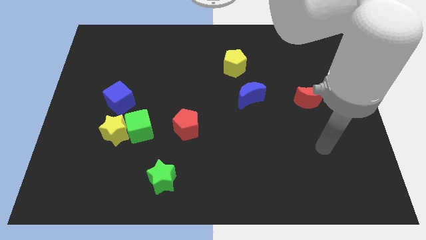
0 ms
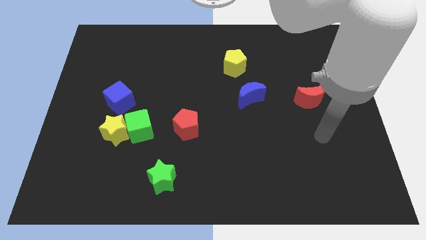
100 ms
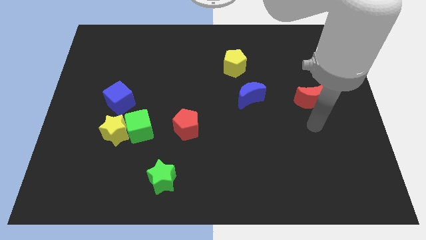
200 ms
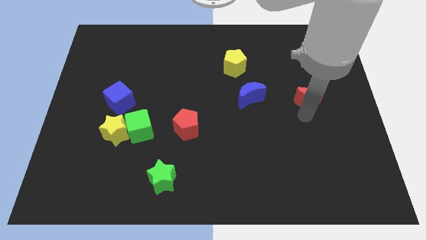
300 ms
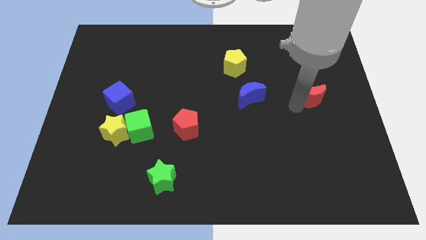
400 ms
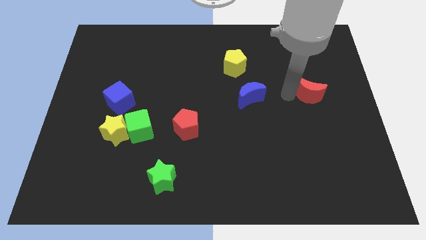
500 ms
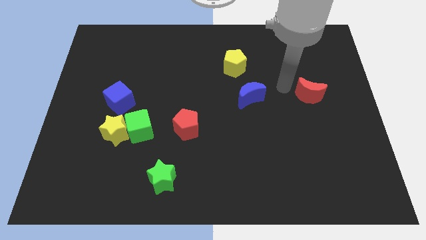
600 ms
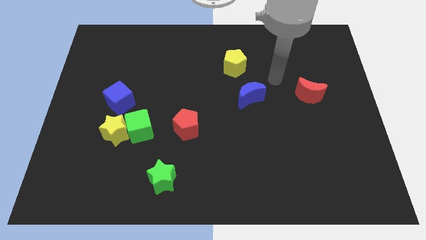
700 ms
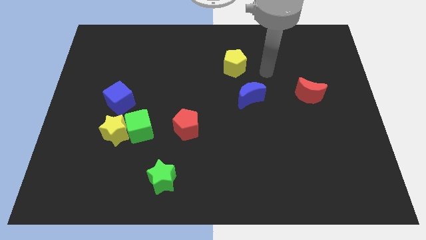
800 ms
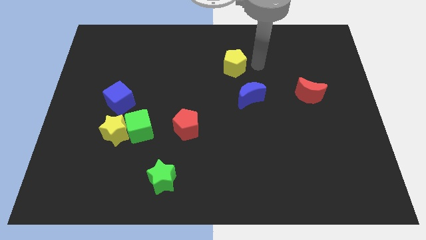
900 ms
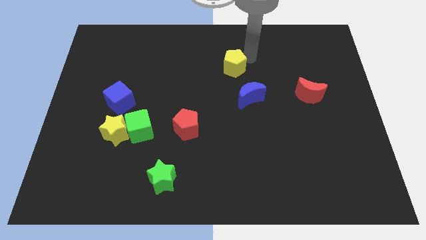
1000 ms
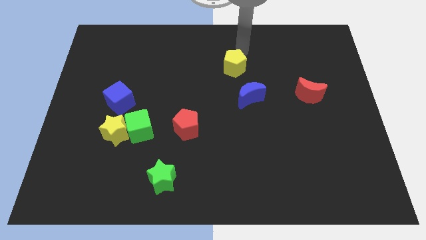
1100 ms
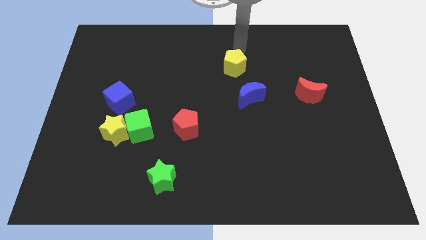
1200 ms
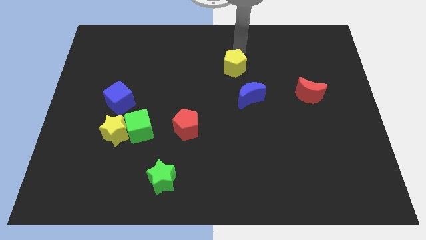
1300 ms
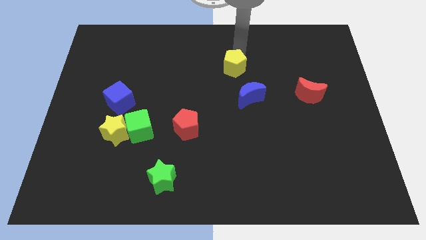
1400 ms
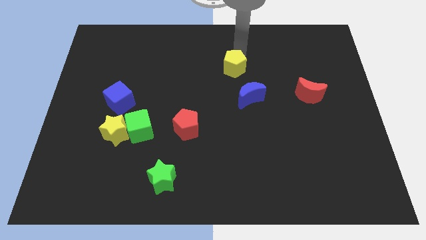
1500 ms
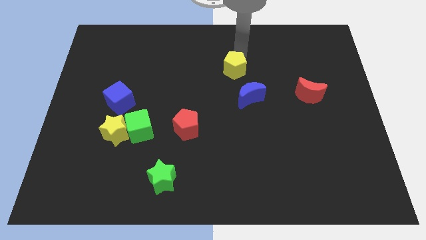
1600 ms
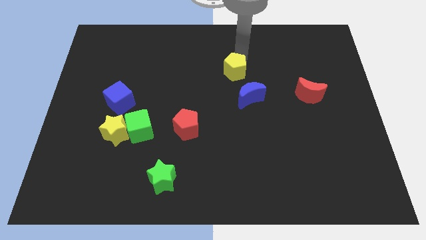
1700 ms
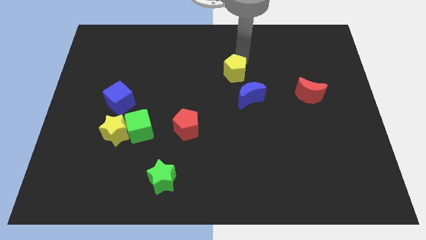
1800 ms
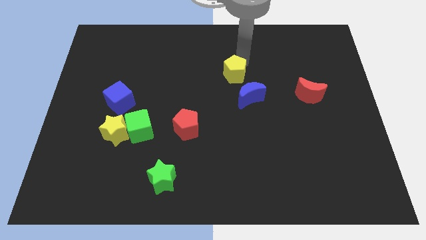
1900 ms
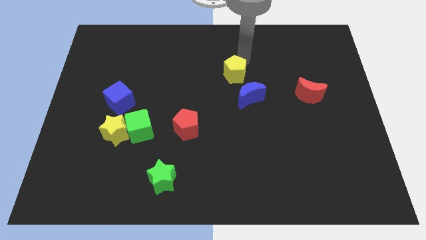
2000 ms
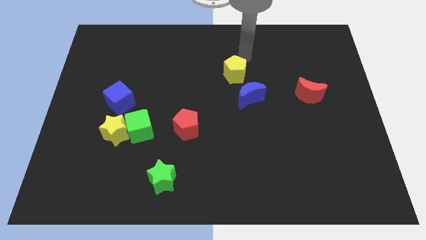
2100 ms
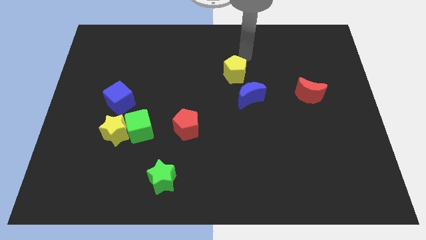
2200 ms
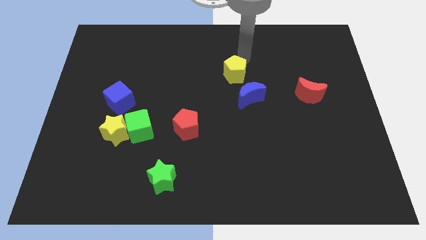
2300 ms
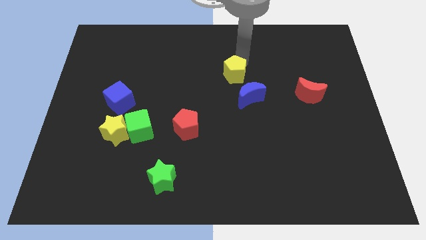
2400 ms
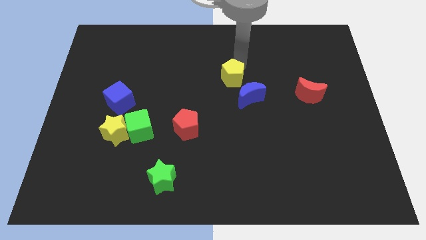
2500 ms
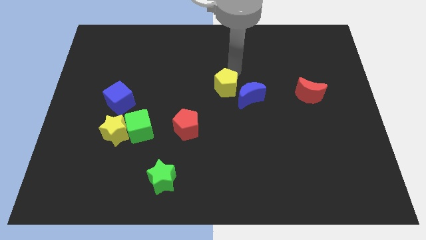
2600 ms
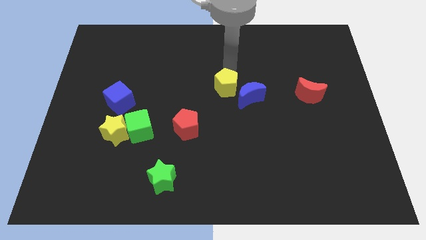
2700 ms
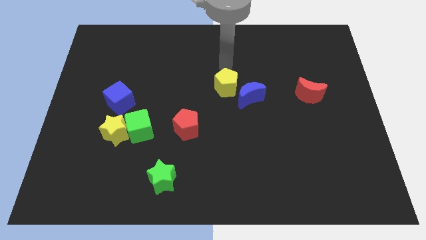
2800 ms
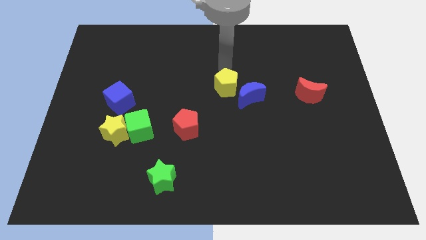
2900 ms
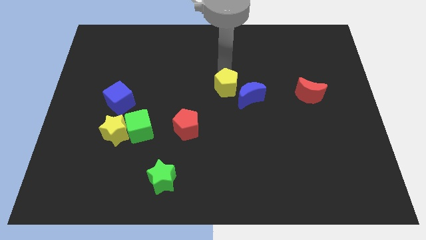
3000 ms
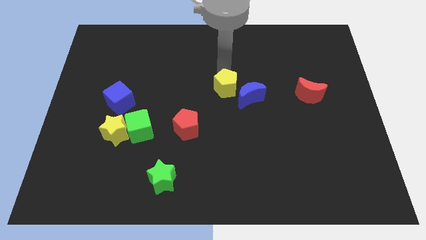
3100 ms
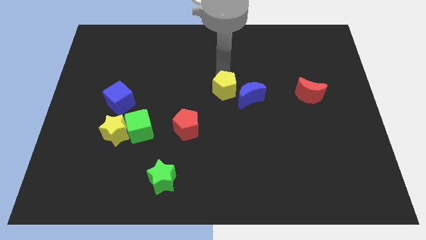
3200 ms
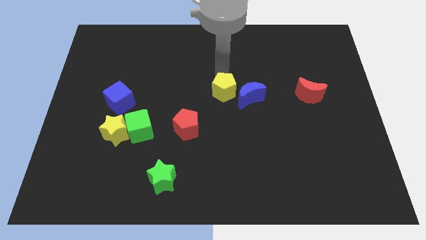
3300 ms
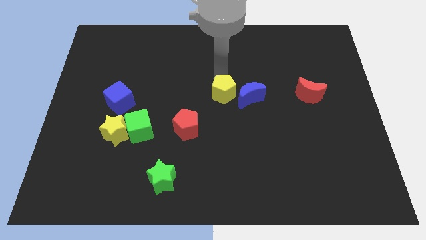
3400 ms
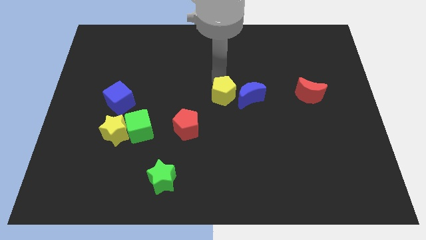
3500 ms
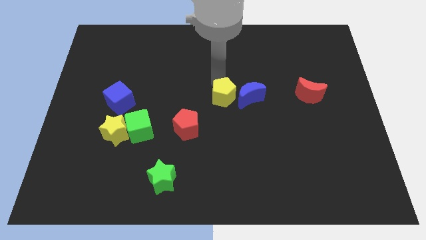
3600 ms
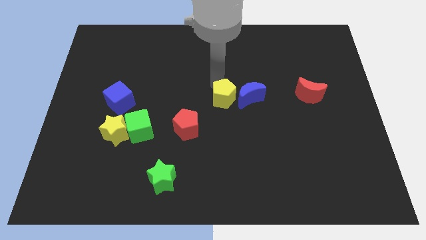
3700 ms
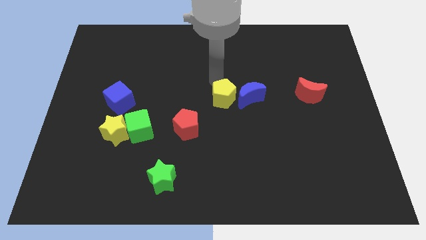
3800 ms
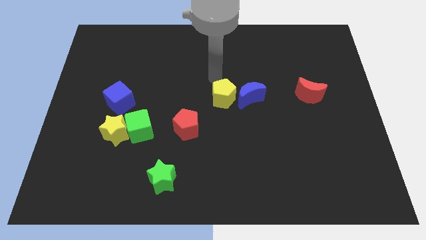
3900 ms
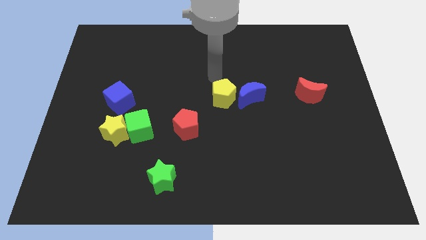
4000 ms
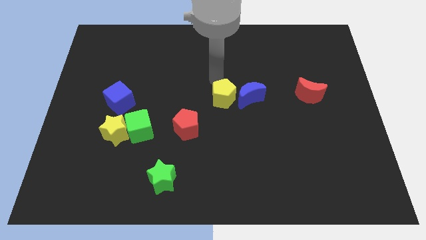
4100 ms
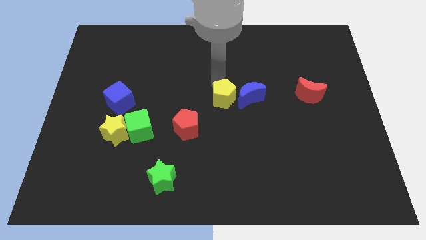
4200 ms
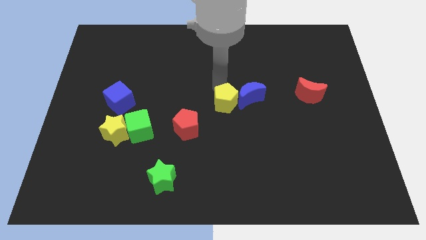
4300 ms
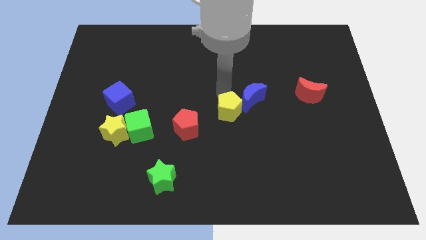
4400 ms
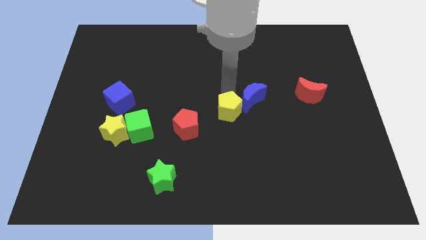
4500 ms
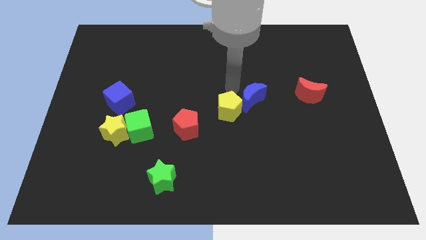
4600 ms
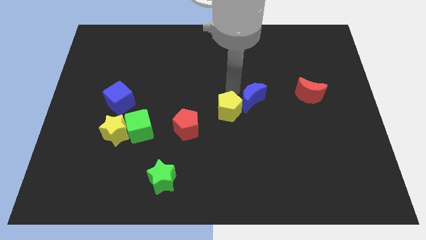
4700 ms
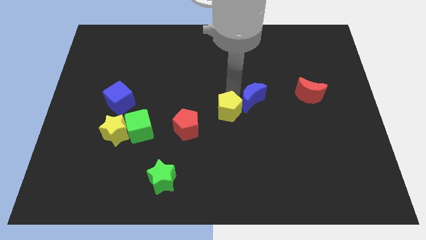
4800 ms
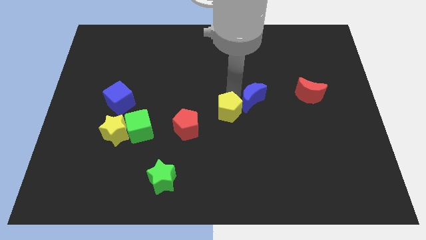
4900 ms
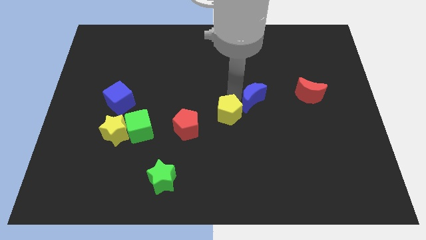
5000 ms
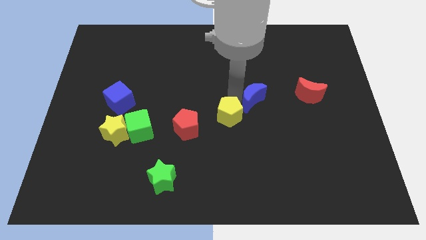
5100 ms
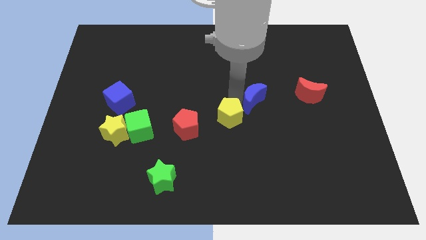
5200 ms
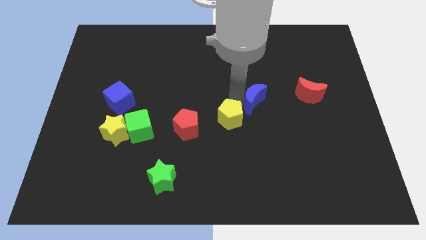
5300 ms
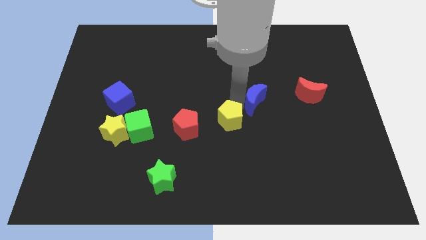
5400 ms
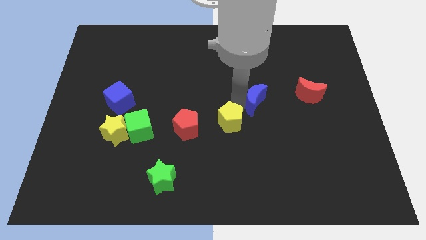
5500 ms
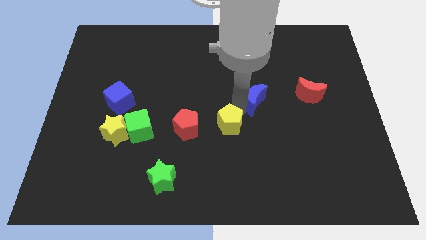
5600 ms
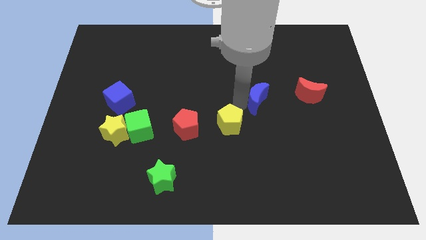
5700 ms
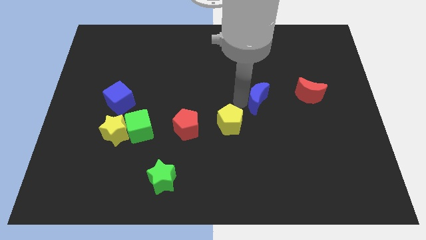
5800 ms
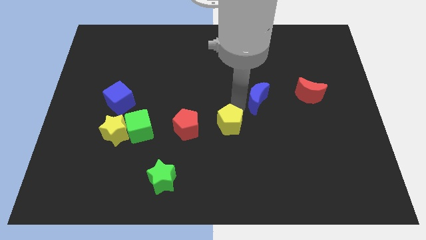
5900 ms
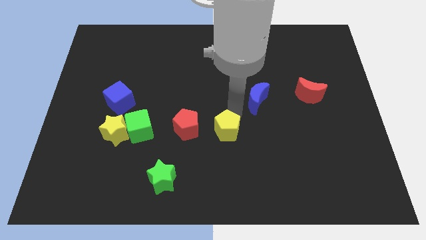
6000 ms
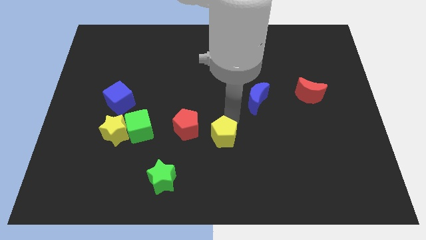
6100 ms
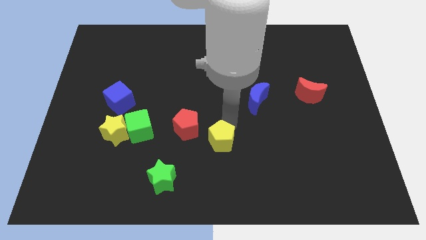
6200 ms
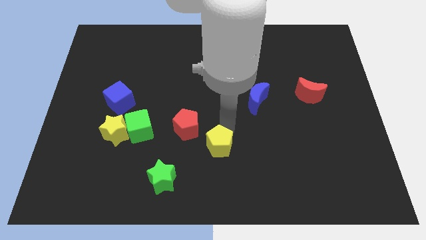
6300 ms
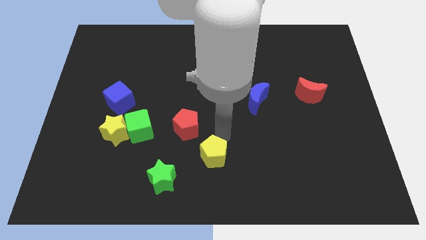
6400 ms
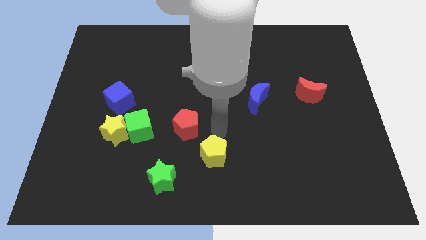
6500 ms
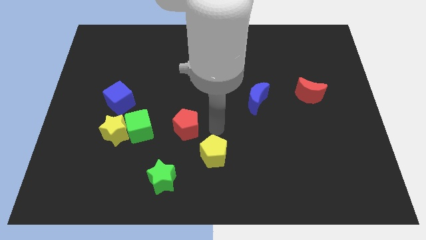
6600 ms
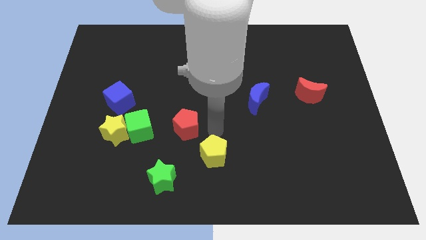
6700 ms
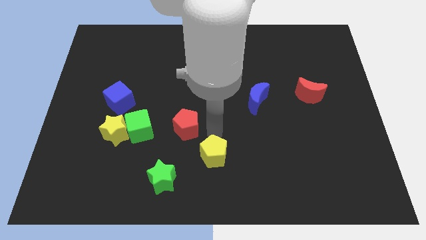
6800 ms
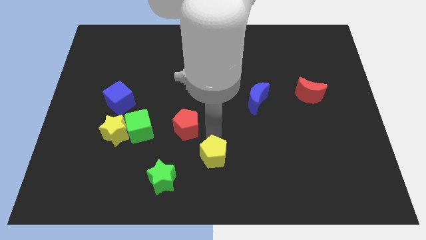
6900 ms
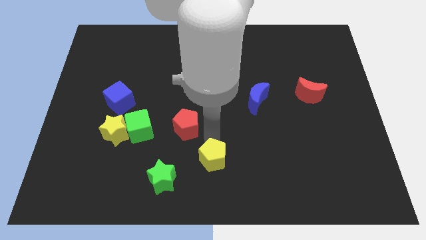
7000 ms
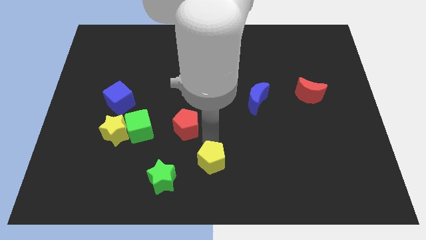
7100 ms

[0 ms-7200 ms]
move the yellow pentagon to the right of the green star

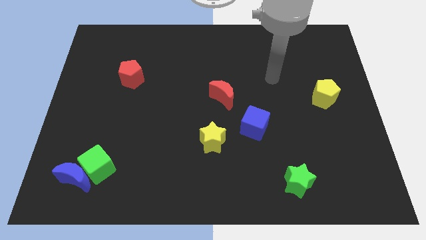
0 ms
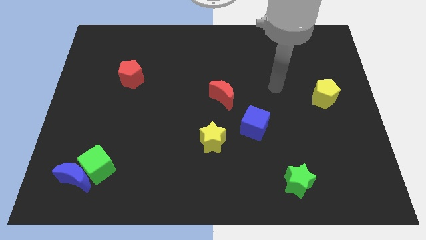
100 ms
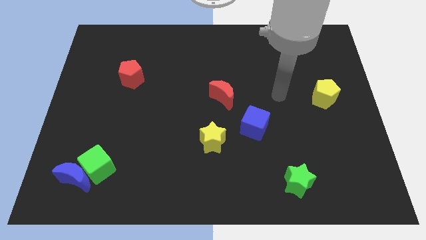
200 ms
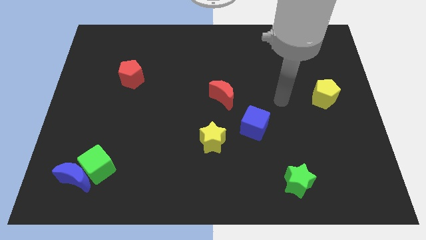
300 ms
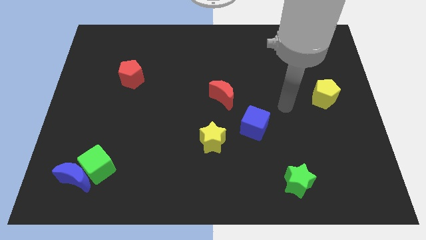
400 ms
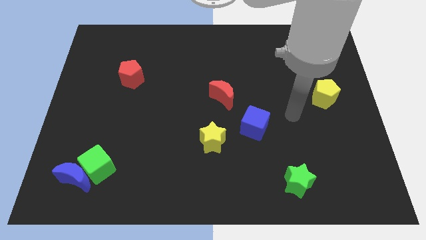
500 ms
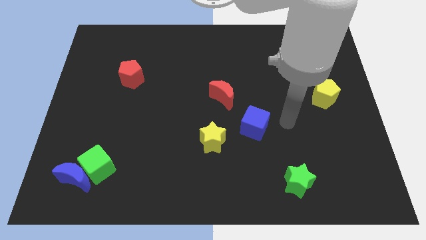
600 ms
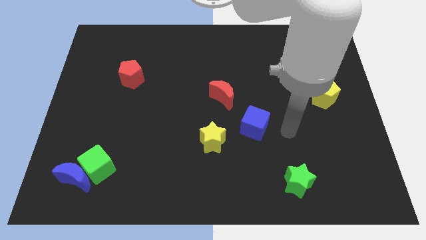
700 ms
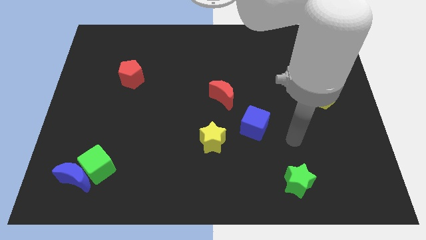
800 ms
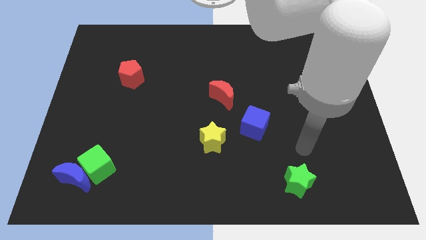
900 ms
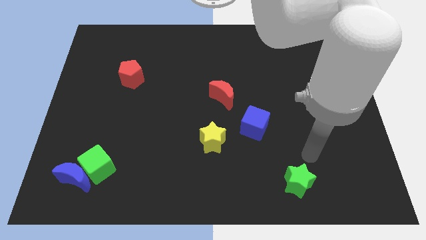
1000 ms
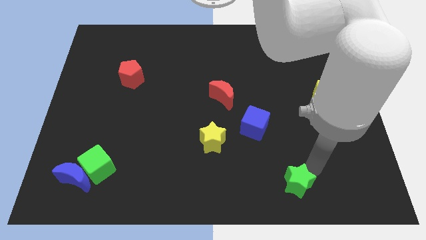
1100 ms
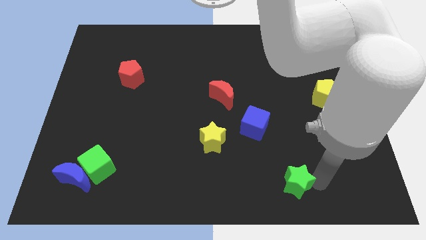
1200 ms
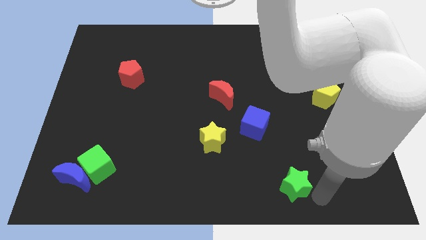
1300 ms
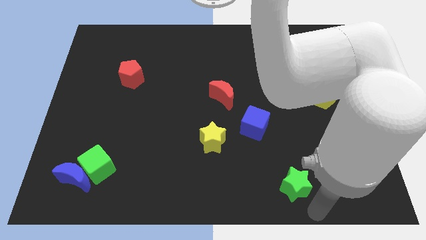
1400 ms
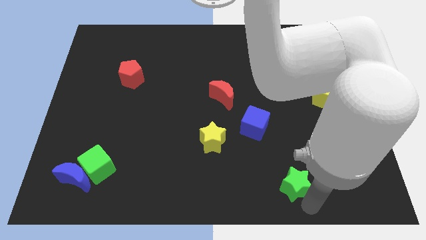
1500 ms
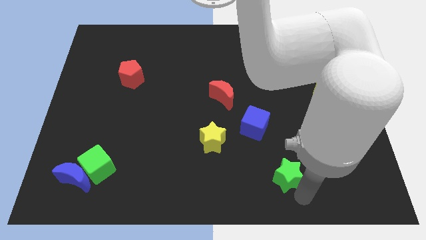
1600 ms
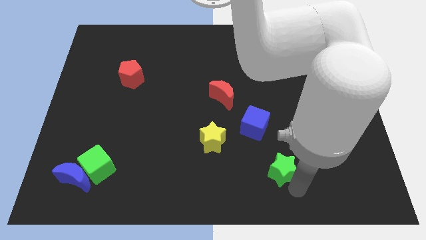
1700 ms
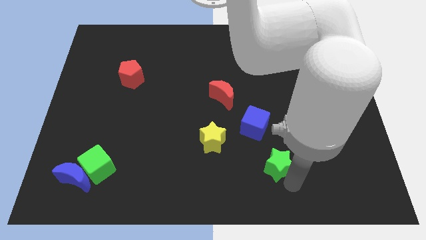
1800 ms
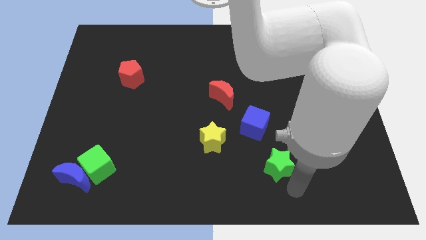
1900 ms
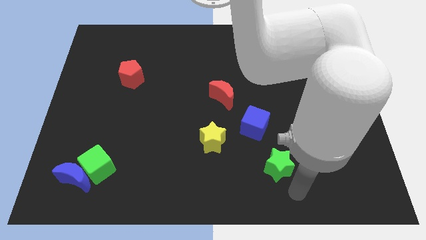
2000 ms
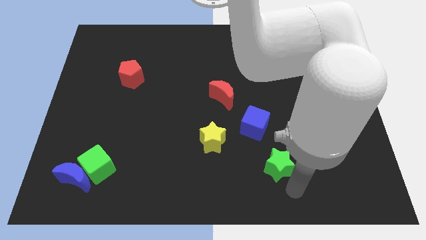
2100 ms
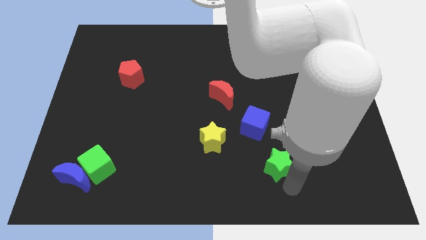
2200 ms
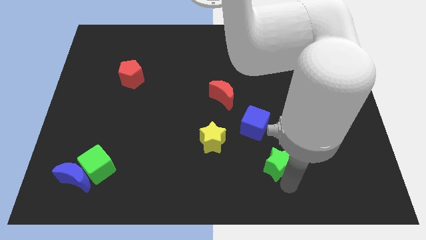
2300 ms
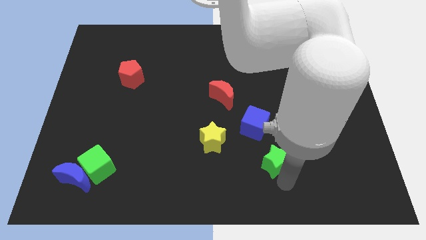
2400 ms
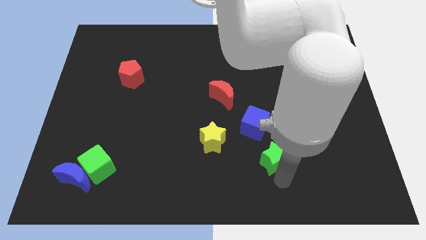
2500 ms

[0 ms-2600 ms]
put the green star just right of the yellow star
